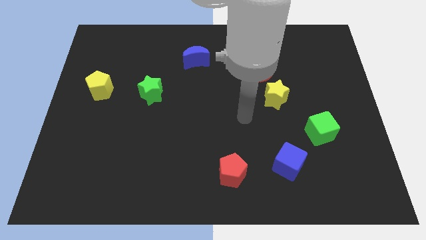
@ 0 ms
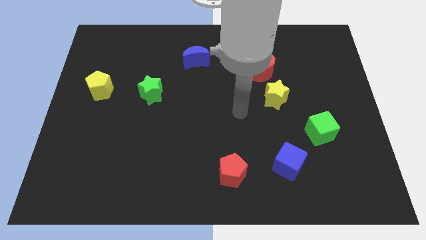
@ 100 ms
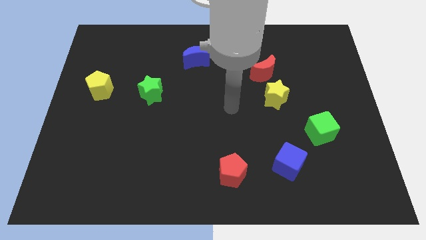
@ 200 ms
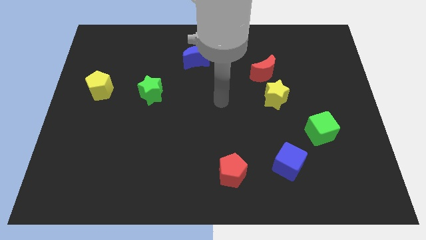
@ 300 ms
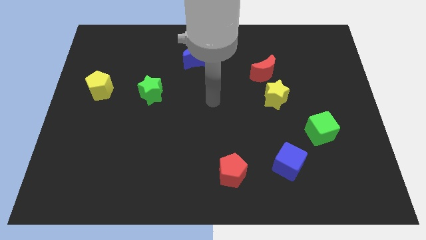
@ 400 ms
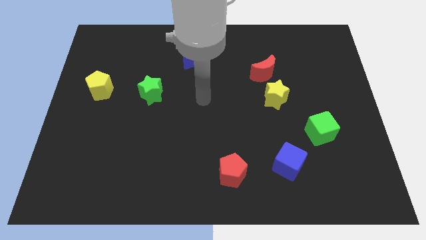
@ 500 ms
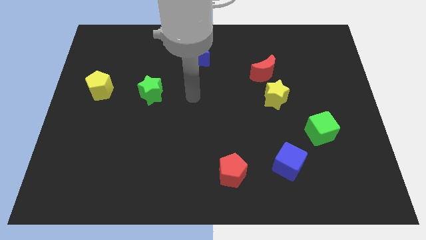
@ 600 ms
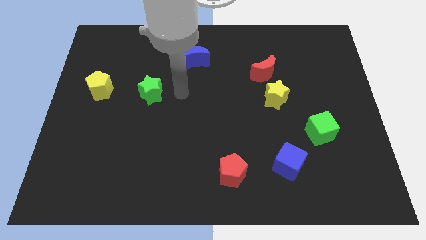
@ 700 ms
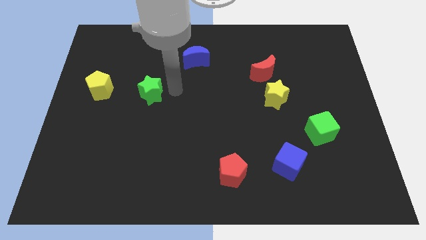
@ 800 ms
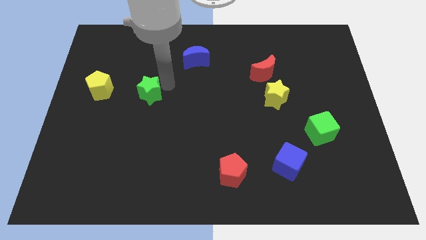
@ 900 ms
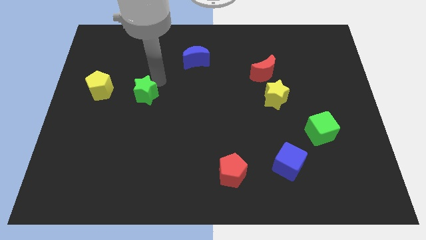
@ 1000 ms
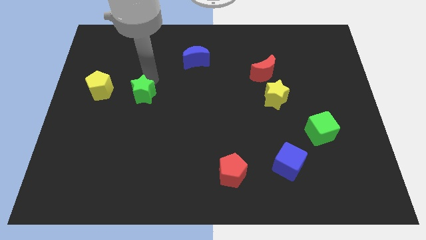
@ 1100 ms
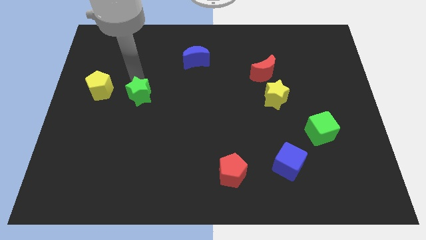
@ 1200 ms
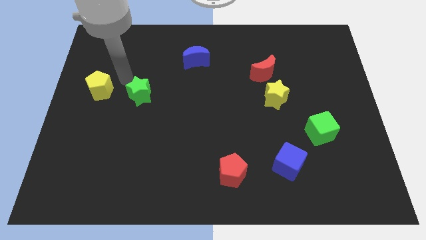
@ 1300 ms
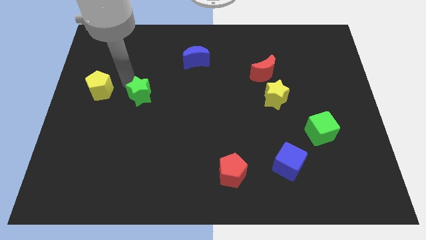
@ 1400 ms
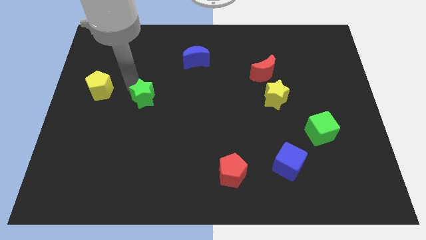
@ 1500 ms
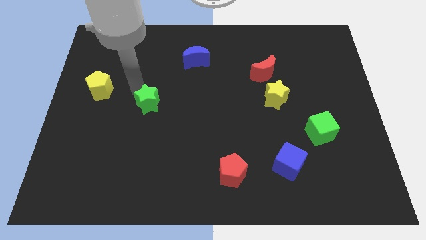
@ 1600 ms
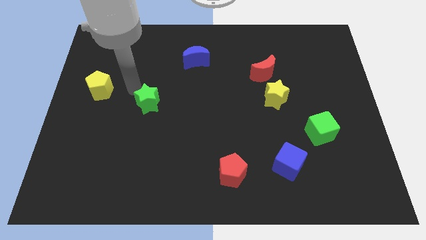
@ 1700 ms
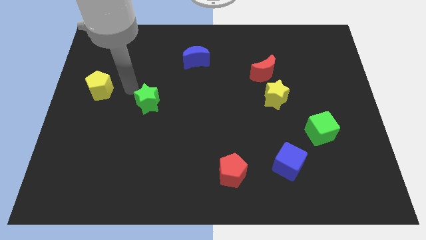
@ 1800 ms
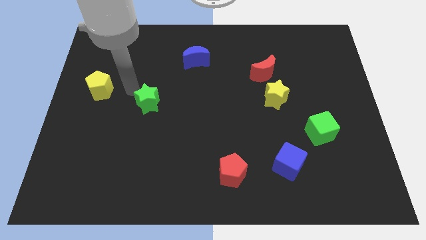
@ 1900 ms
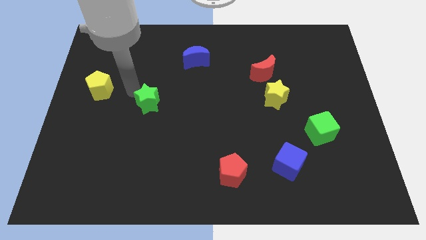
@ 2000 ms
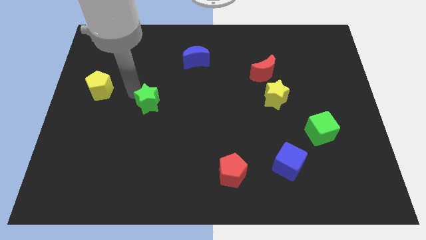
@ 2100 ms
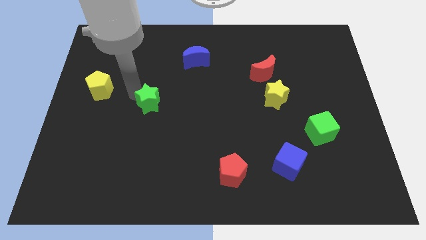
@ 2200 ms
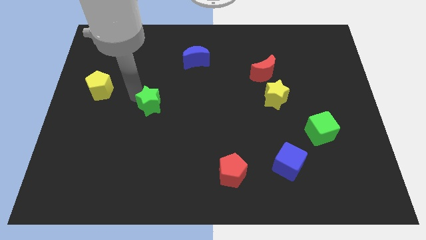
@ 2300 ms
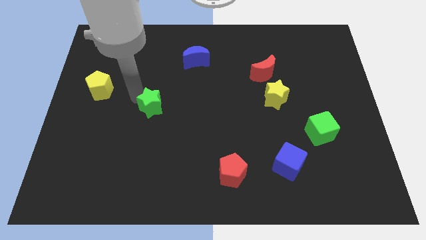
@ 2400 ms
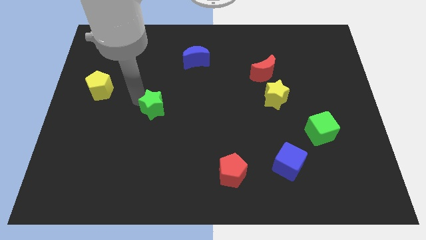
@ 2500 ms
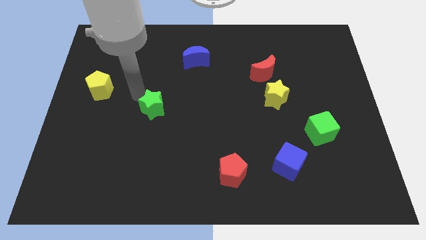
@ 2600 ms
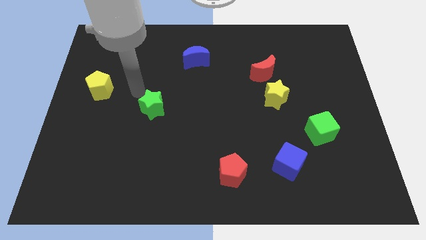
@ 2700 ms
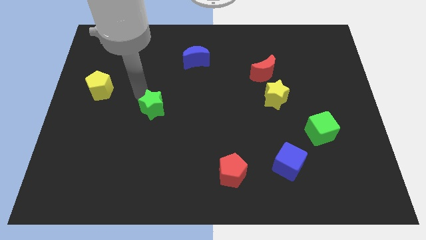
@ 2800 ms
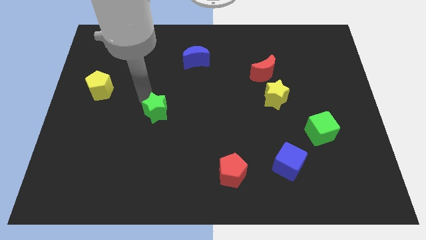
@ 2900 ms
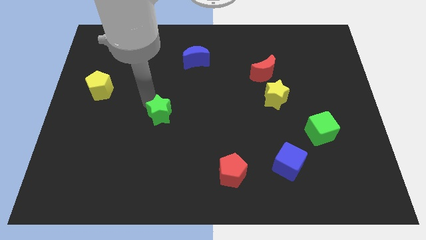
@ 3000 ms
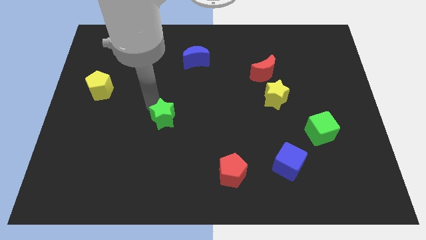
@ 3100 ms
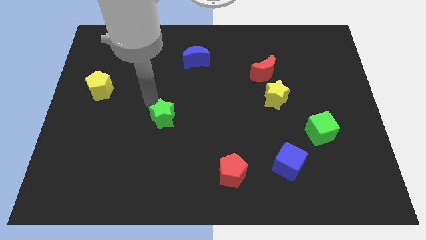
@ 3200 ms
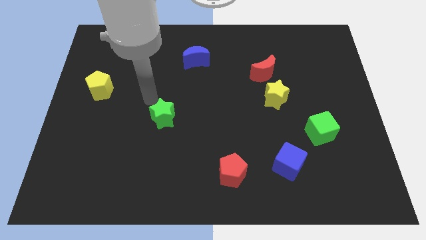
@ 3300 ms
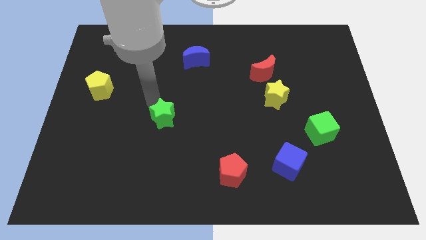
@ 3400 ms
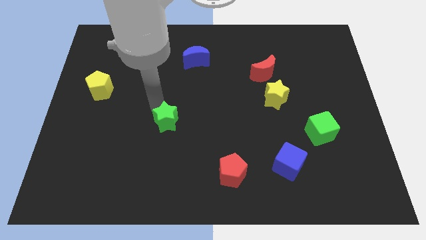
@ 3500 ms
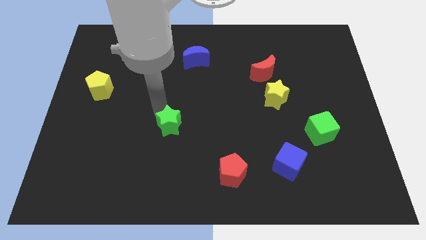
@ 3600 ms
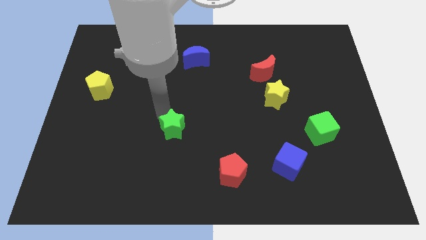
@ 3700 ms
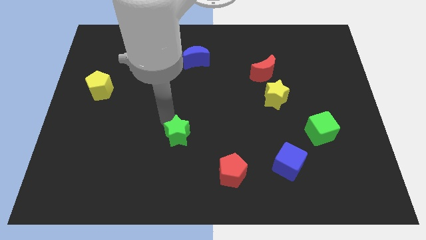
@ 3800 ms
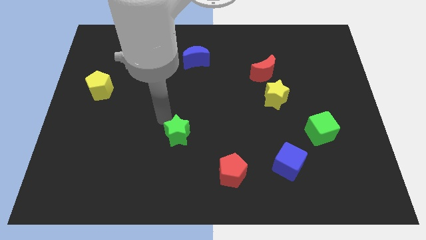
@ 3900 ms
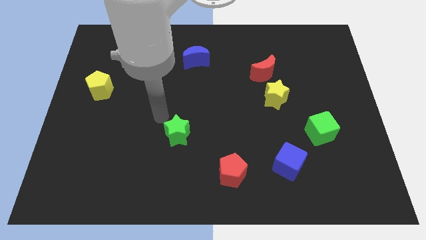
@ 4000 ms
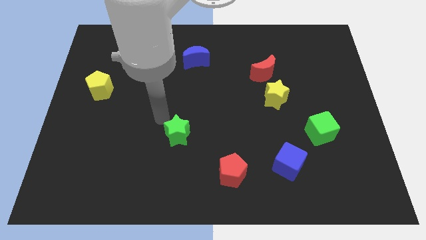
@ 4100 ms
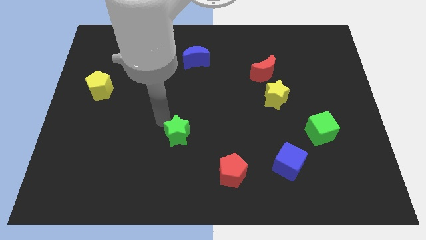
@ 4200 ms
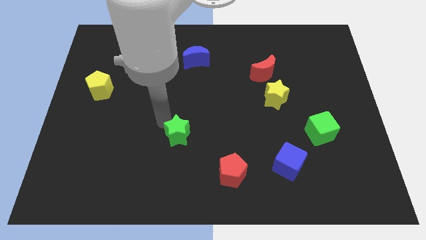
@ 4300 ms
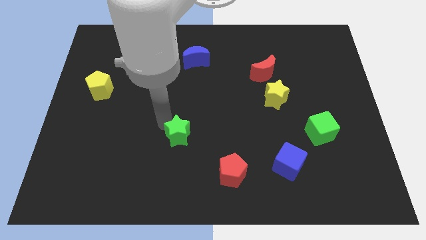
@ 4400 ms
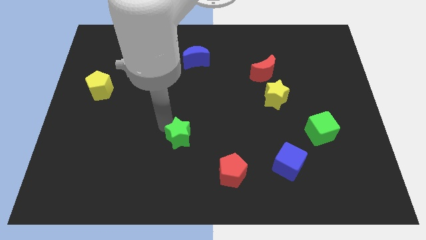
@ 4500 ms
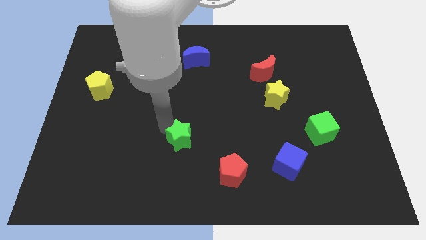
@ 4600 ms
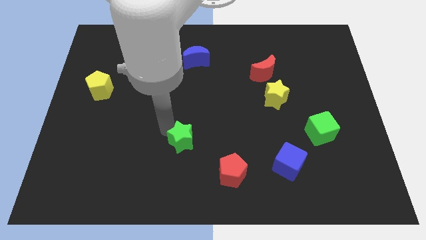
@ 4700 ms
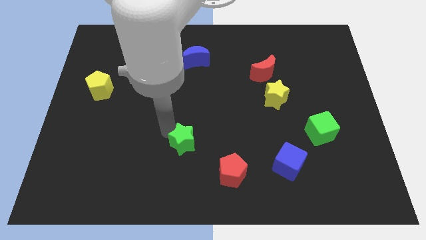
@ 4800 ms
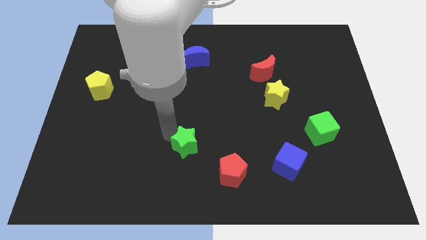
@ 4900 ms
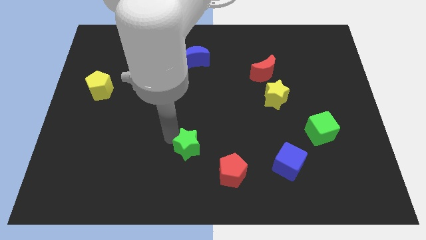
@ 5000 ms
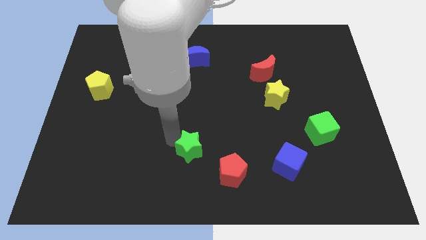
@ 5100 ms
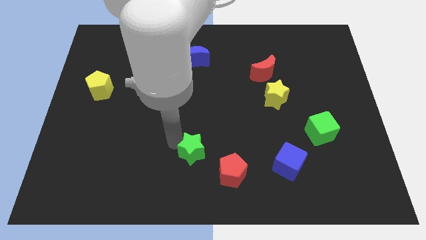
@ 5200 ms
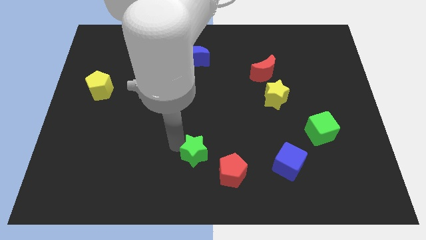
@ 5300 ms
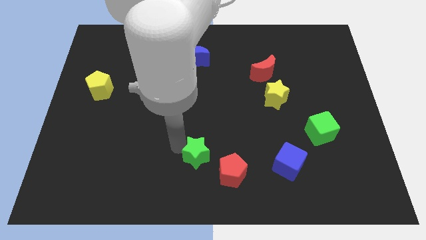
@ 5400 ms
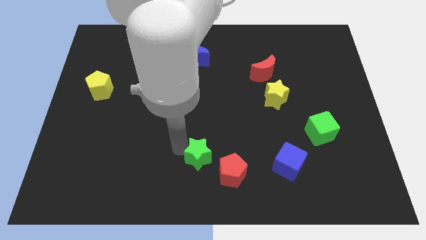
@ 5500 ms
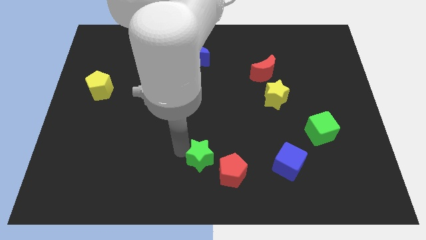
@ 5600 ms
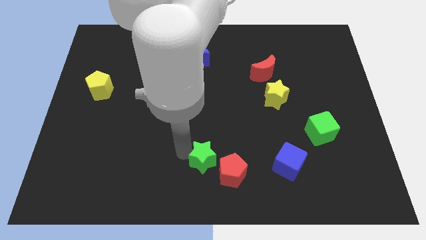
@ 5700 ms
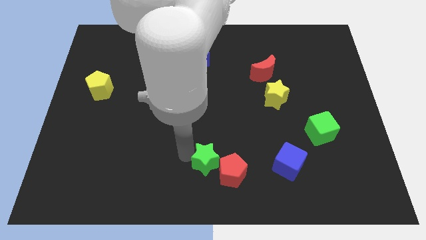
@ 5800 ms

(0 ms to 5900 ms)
put the green star next to the red pentagon

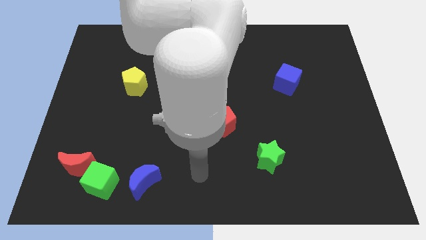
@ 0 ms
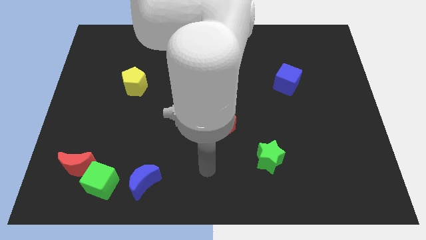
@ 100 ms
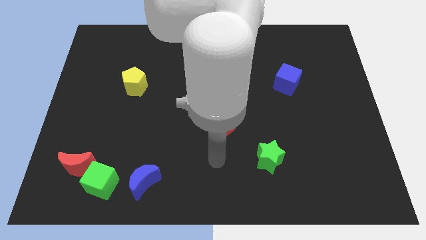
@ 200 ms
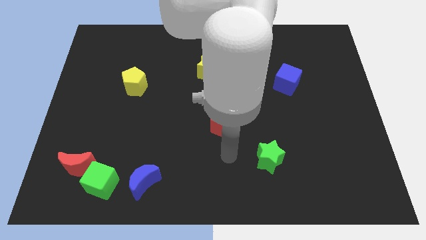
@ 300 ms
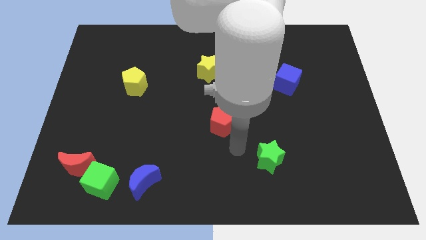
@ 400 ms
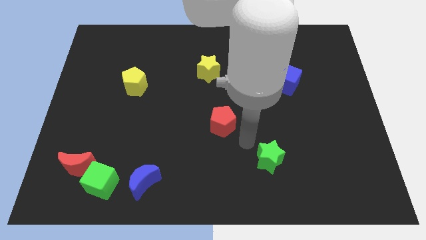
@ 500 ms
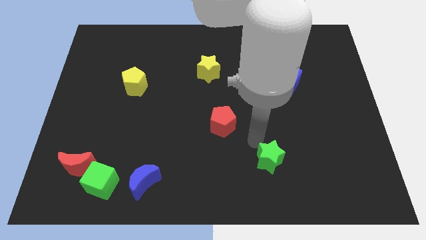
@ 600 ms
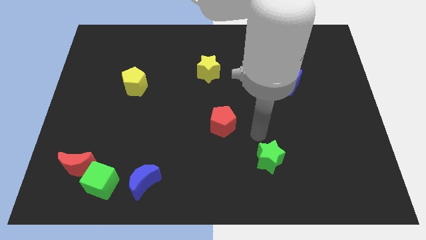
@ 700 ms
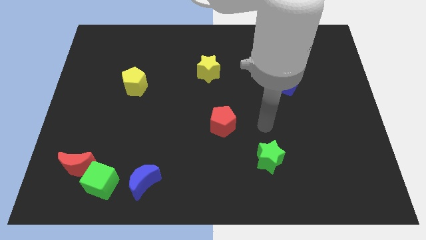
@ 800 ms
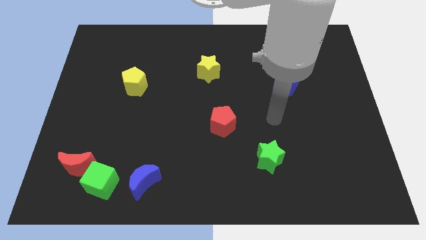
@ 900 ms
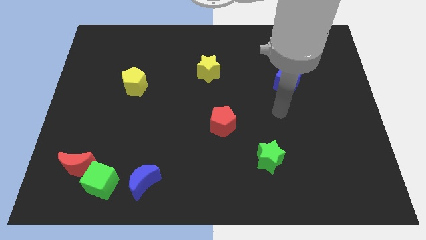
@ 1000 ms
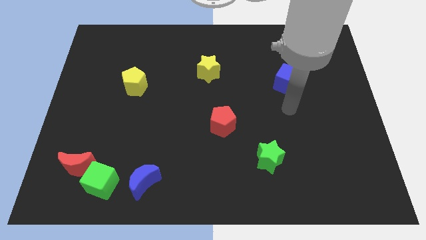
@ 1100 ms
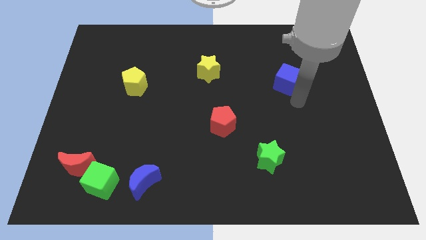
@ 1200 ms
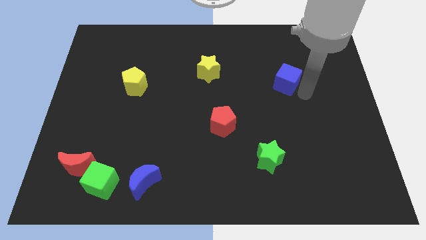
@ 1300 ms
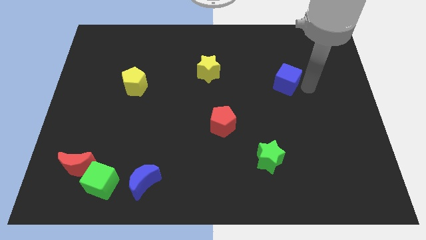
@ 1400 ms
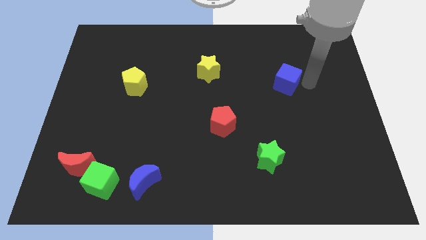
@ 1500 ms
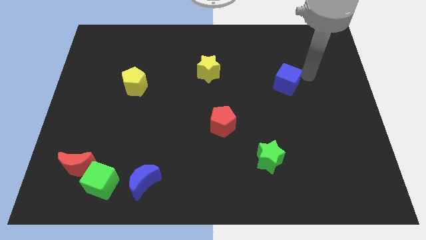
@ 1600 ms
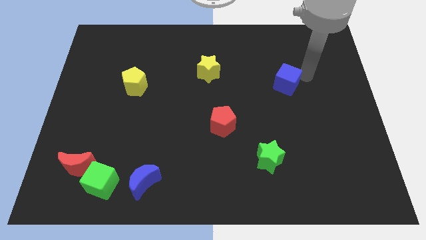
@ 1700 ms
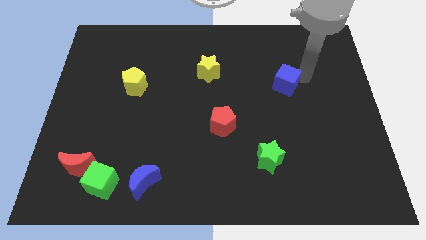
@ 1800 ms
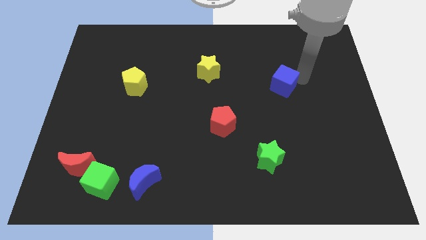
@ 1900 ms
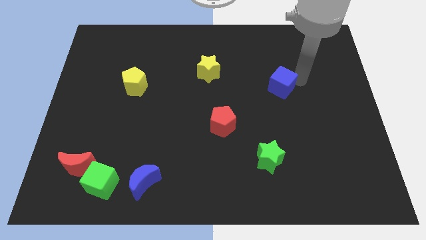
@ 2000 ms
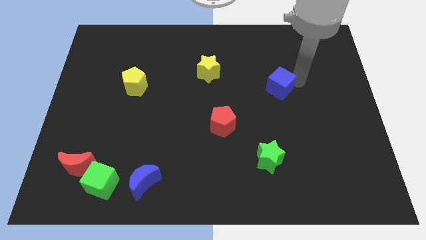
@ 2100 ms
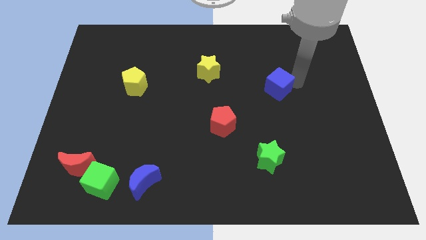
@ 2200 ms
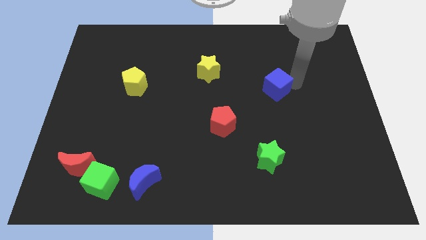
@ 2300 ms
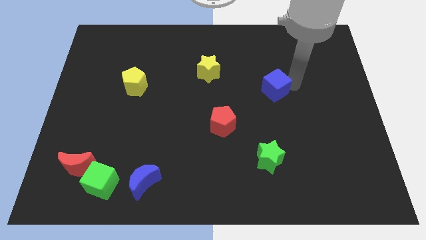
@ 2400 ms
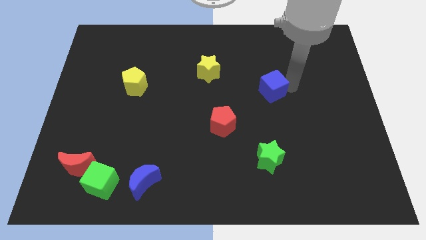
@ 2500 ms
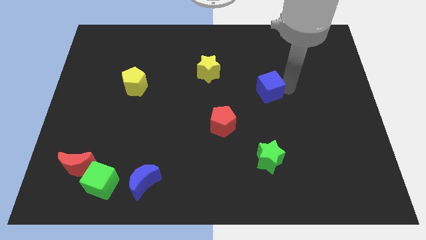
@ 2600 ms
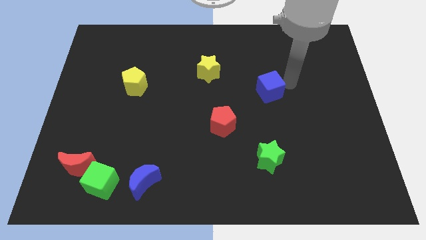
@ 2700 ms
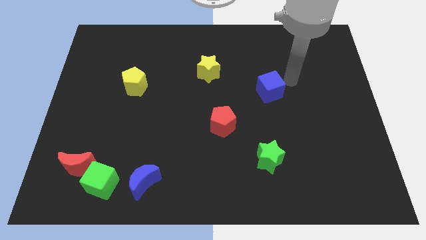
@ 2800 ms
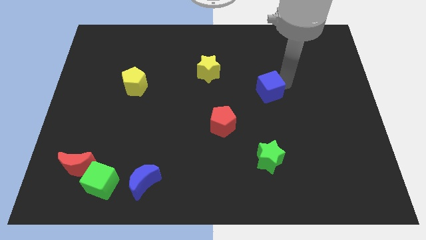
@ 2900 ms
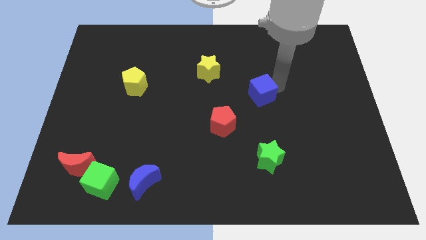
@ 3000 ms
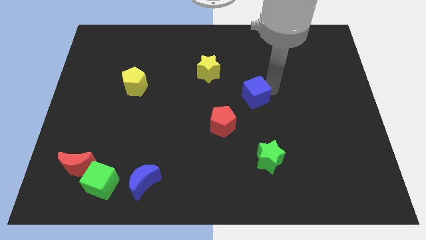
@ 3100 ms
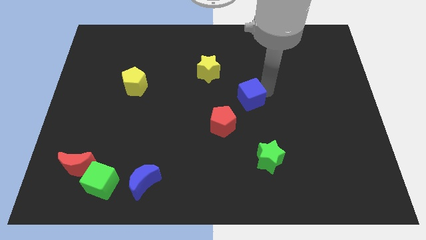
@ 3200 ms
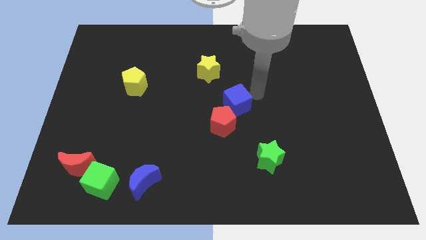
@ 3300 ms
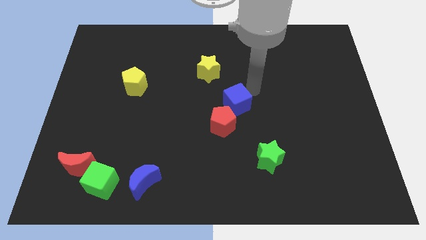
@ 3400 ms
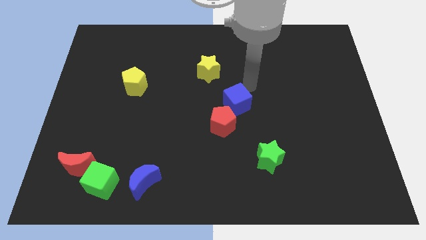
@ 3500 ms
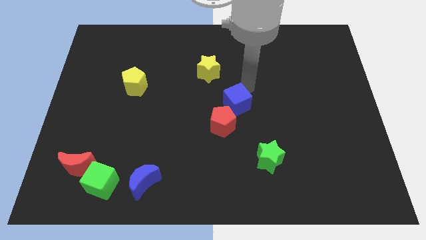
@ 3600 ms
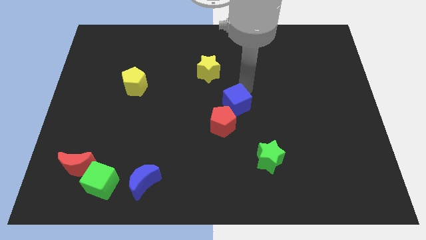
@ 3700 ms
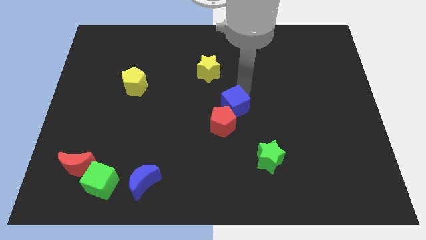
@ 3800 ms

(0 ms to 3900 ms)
put the blue cube close to the red pentagon
